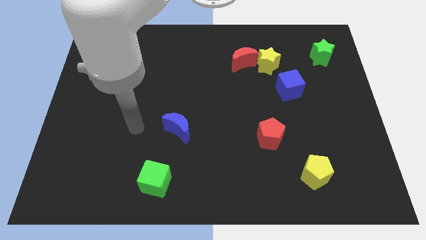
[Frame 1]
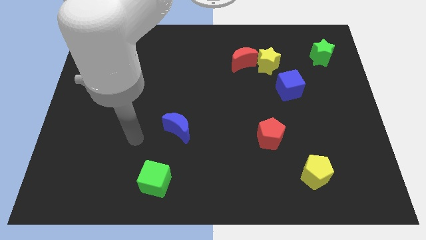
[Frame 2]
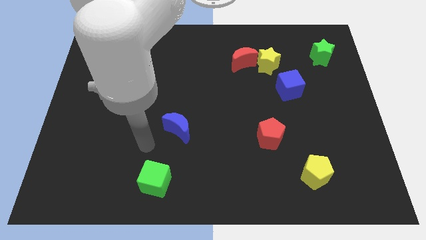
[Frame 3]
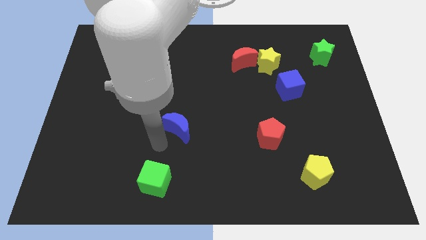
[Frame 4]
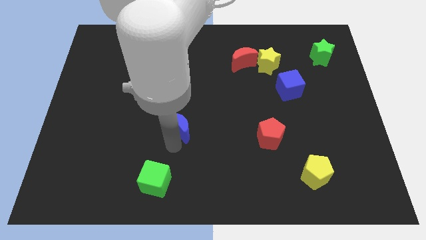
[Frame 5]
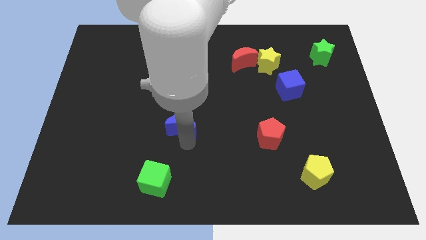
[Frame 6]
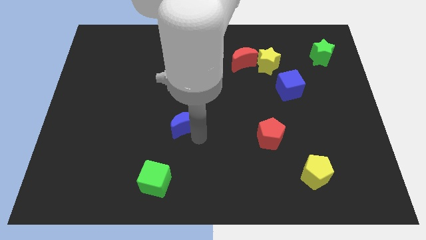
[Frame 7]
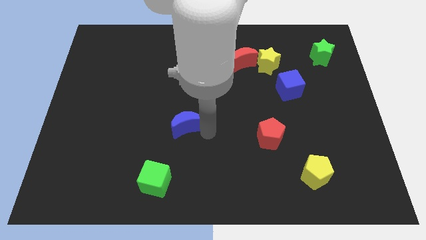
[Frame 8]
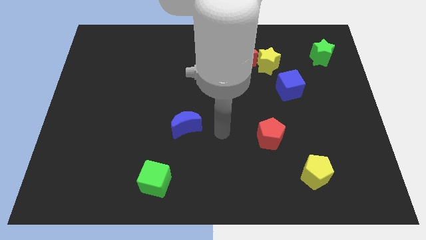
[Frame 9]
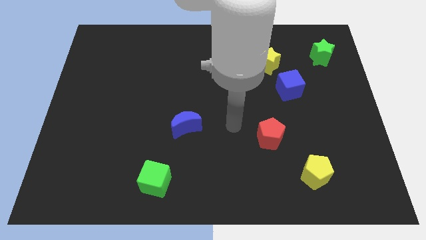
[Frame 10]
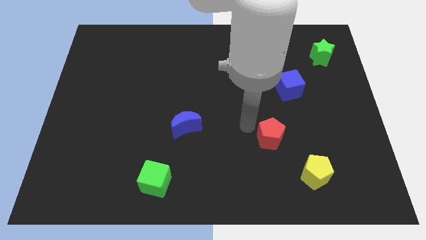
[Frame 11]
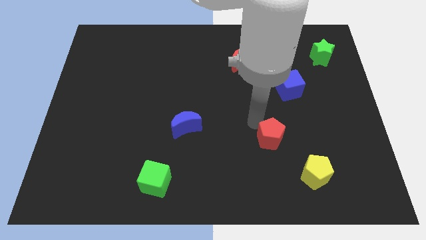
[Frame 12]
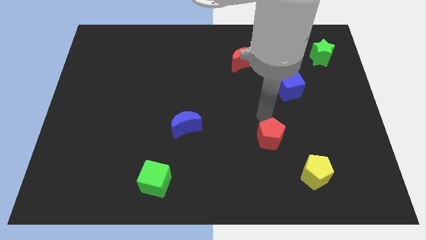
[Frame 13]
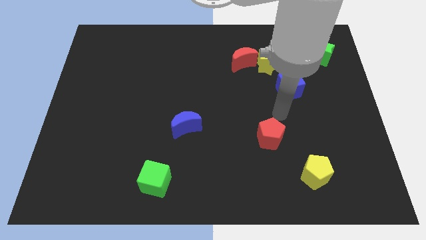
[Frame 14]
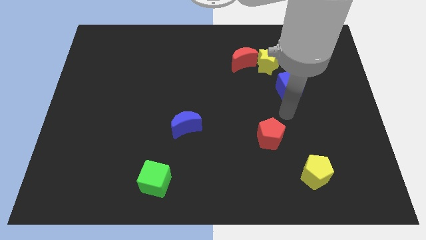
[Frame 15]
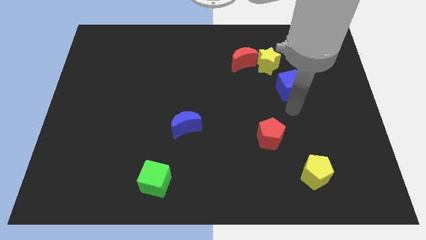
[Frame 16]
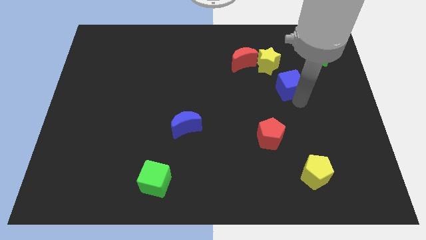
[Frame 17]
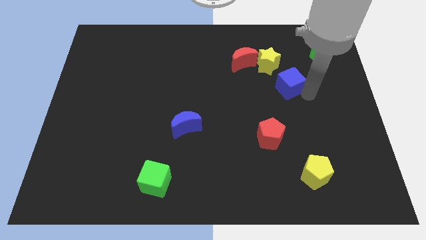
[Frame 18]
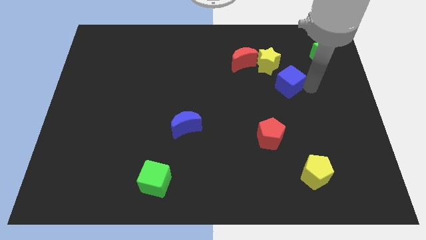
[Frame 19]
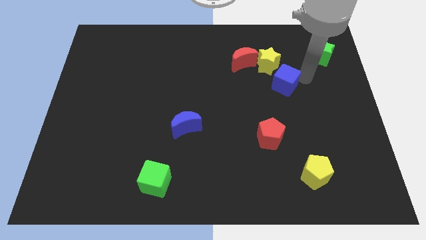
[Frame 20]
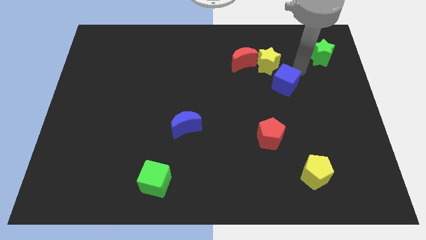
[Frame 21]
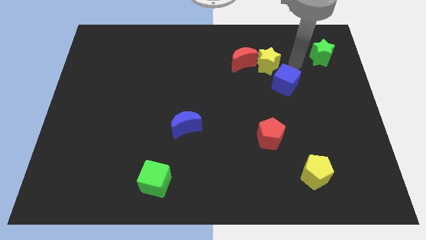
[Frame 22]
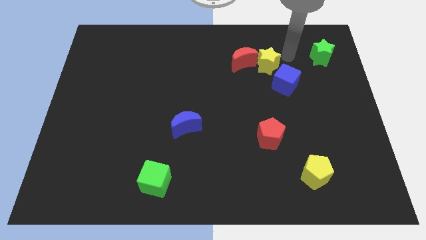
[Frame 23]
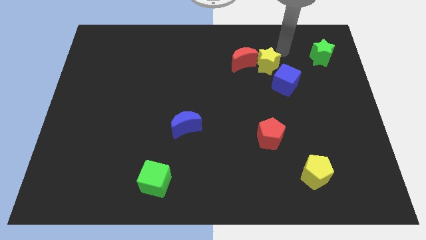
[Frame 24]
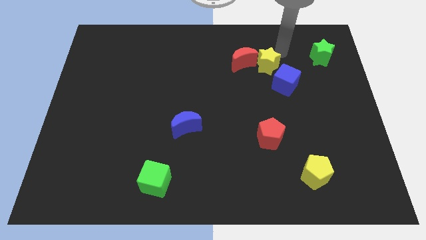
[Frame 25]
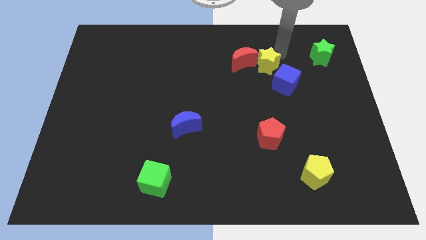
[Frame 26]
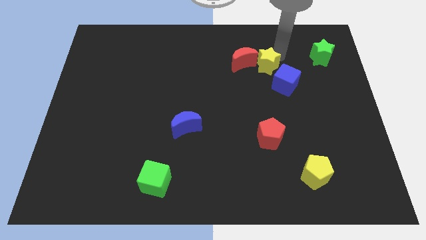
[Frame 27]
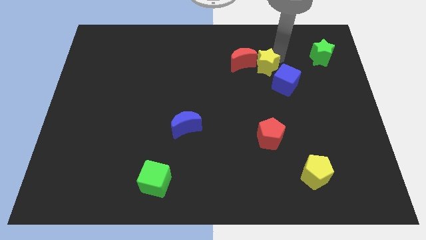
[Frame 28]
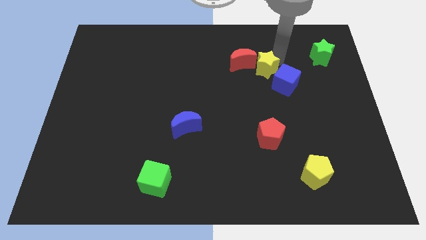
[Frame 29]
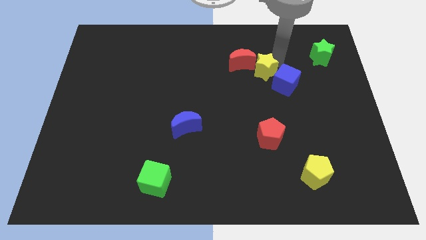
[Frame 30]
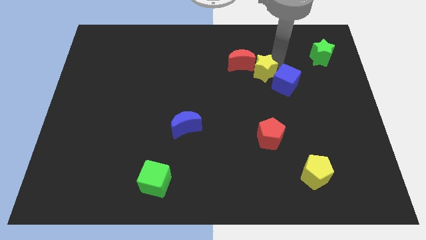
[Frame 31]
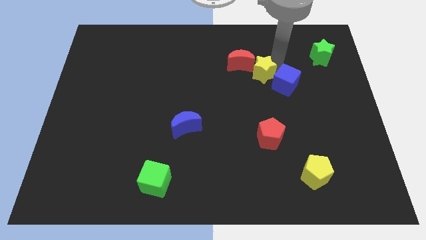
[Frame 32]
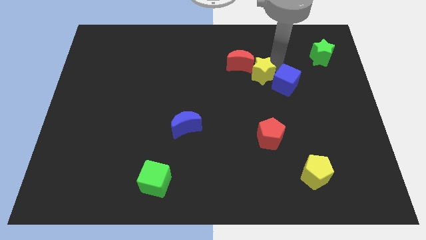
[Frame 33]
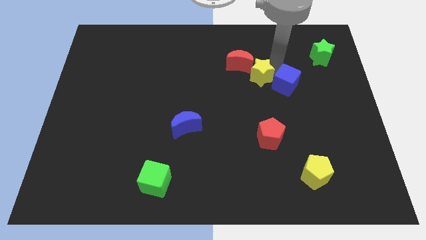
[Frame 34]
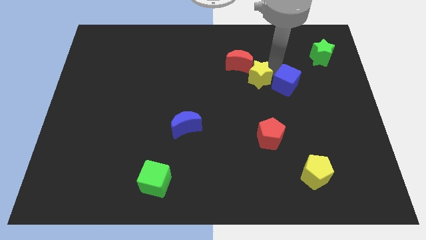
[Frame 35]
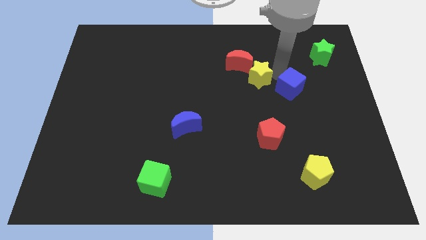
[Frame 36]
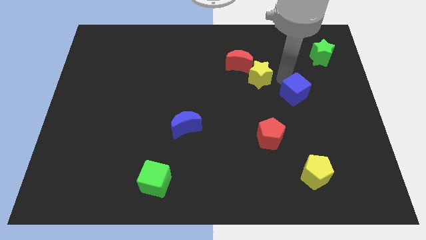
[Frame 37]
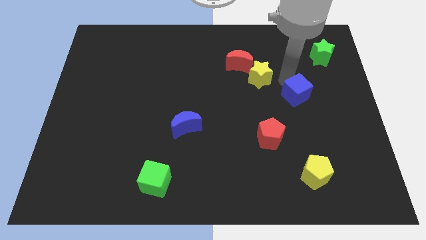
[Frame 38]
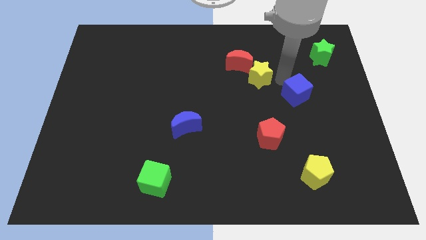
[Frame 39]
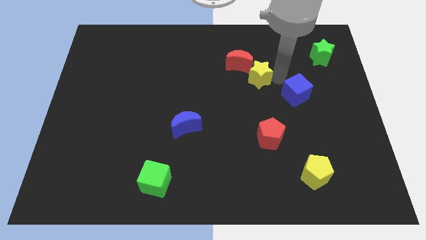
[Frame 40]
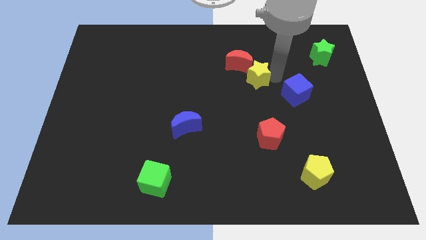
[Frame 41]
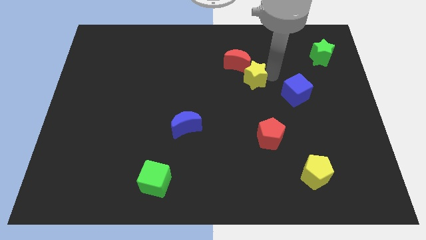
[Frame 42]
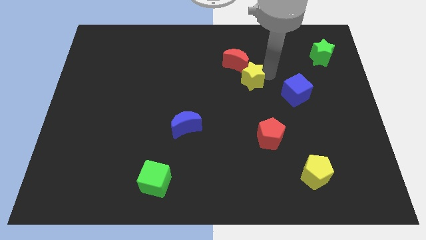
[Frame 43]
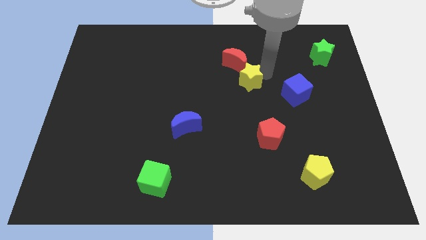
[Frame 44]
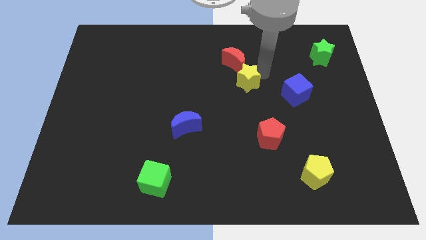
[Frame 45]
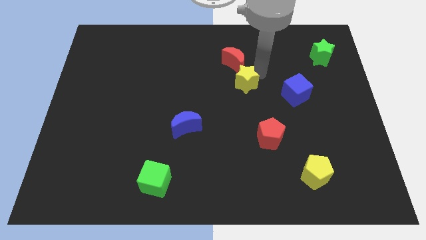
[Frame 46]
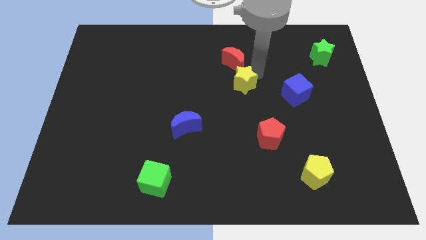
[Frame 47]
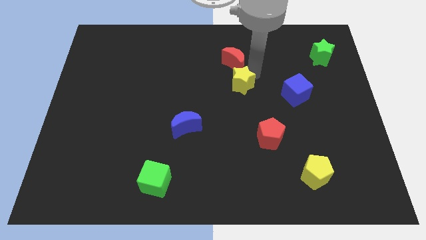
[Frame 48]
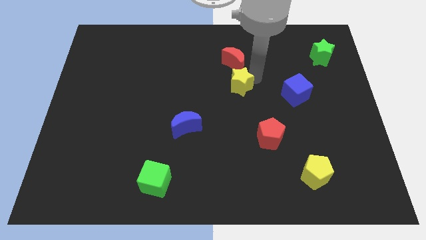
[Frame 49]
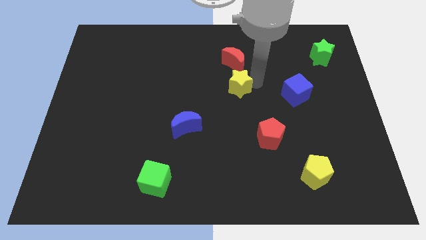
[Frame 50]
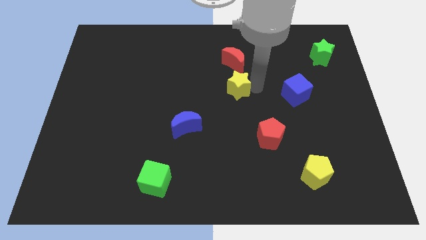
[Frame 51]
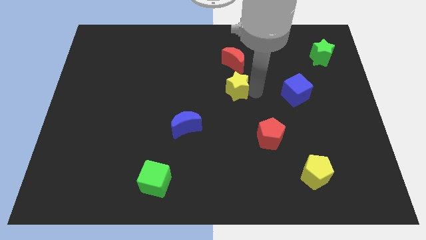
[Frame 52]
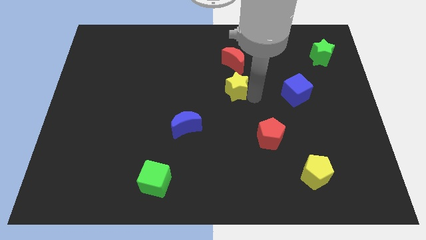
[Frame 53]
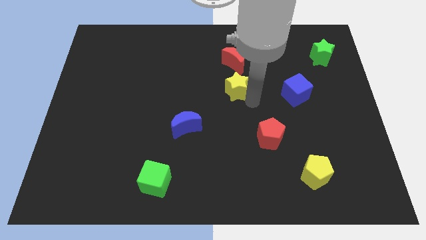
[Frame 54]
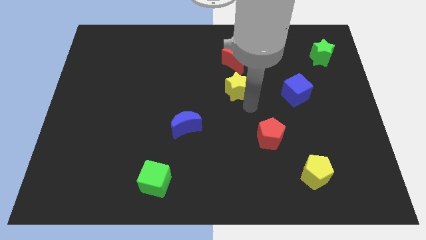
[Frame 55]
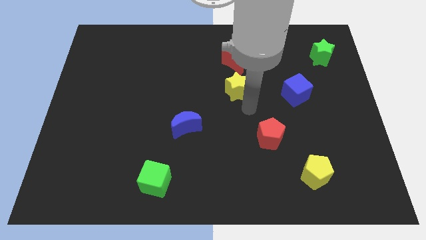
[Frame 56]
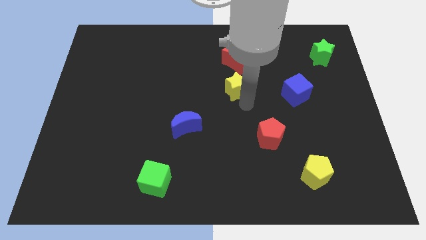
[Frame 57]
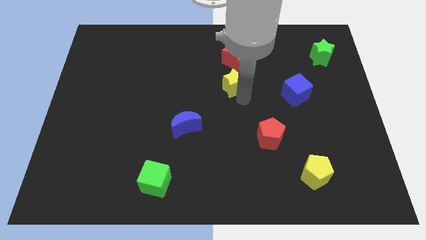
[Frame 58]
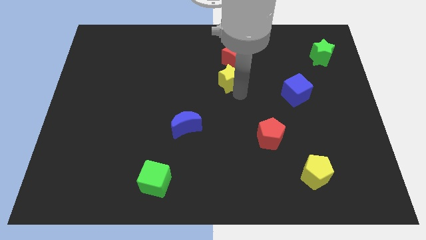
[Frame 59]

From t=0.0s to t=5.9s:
move the yellow star a little bit left

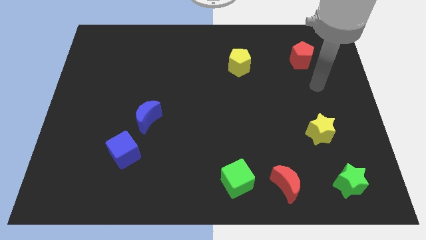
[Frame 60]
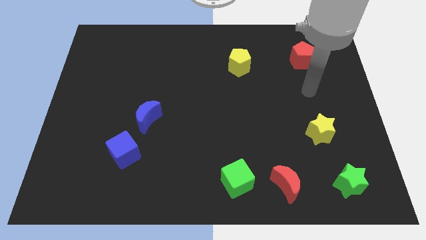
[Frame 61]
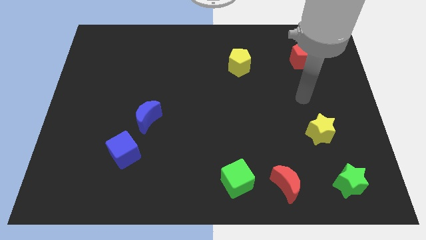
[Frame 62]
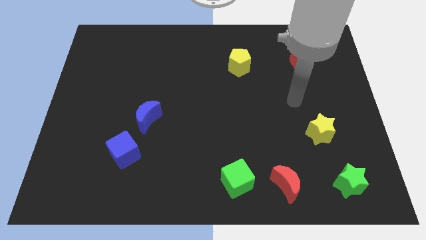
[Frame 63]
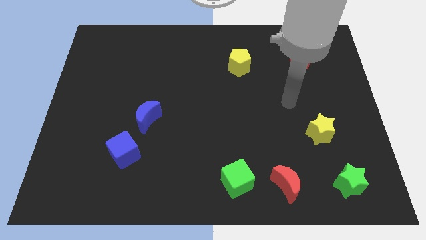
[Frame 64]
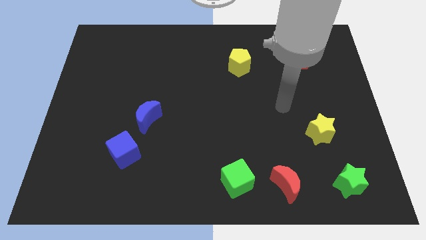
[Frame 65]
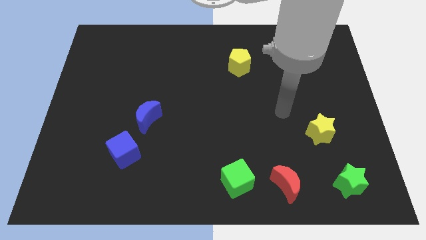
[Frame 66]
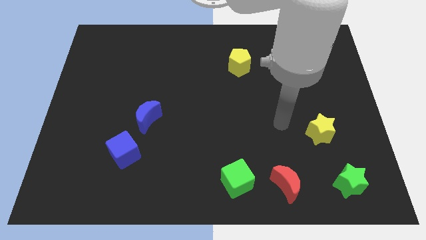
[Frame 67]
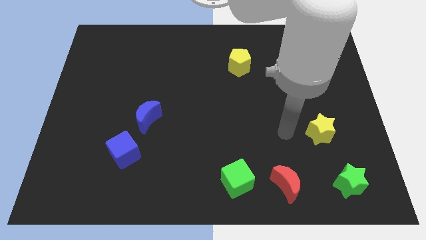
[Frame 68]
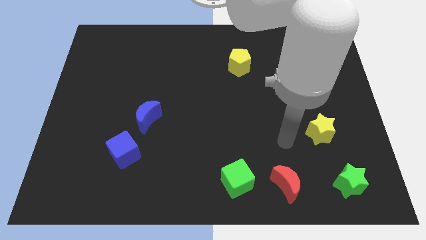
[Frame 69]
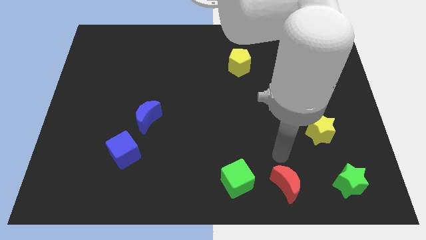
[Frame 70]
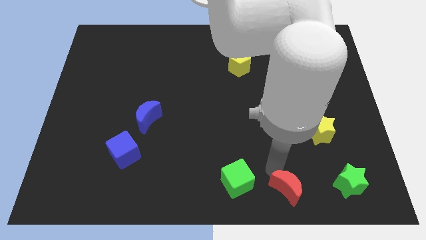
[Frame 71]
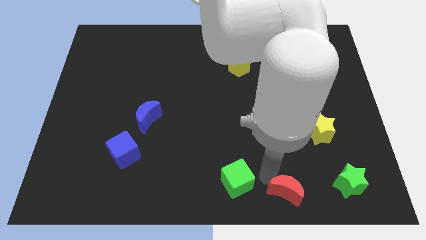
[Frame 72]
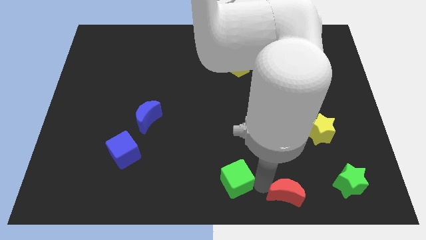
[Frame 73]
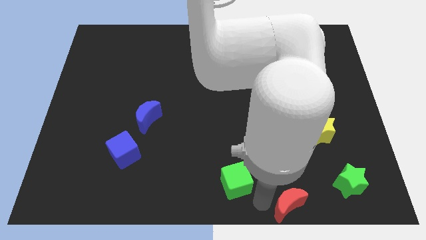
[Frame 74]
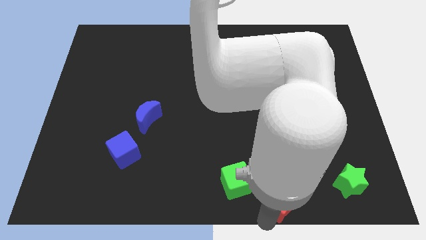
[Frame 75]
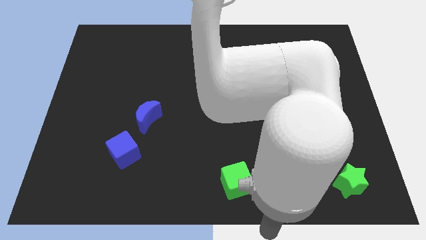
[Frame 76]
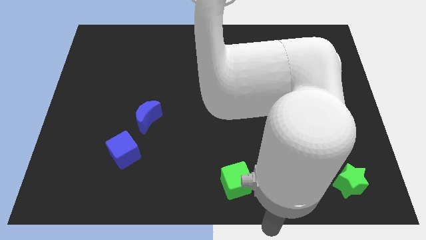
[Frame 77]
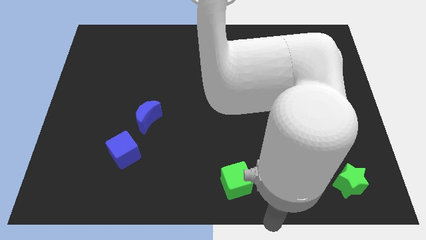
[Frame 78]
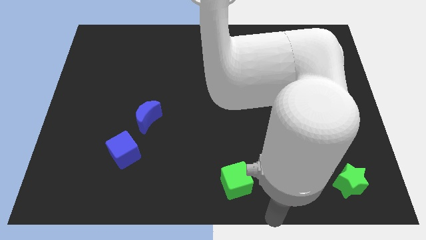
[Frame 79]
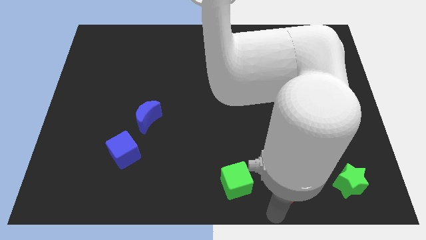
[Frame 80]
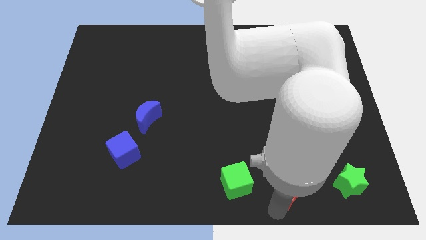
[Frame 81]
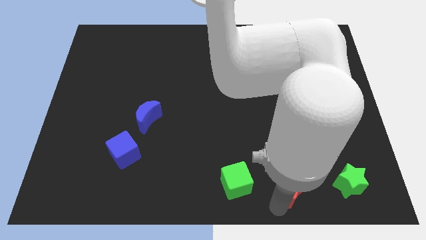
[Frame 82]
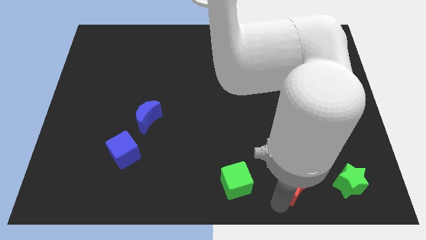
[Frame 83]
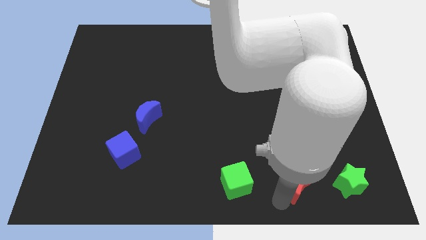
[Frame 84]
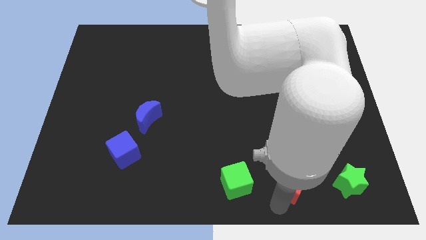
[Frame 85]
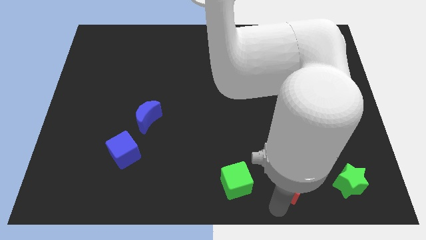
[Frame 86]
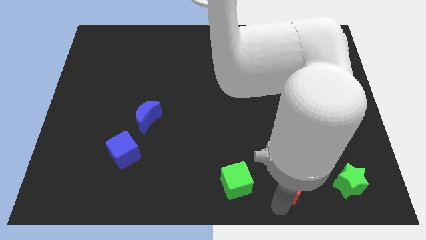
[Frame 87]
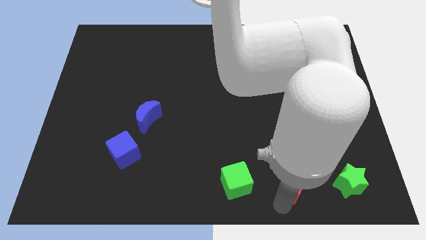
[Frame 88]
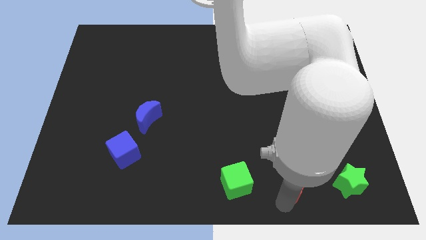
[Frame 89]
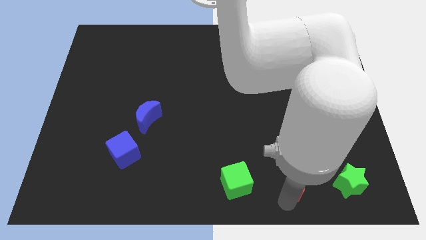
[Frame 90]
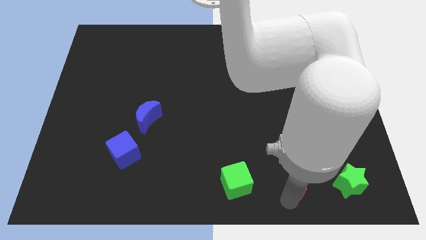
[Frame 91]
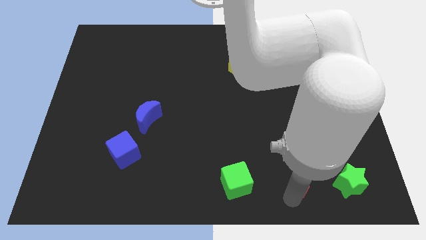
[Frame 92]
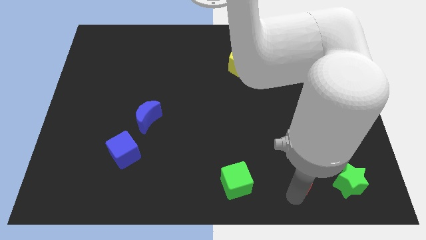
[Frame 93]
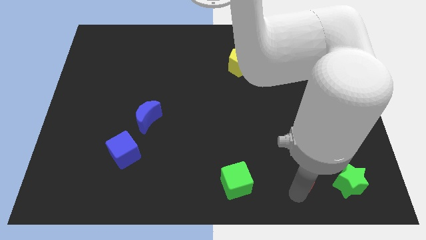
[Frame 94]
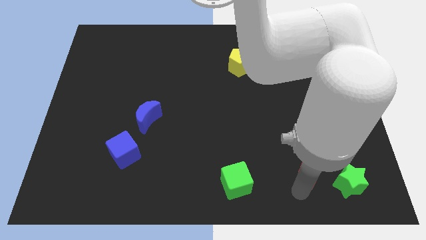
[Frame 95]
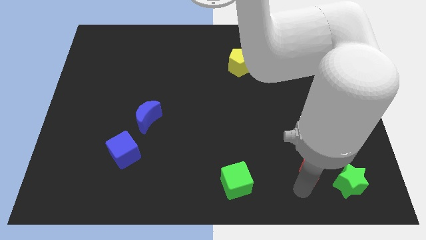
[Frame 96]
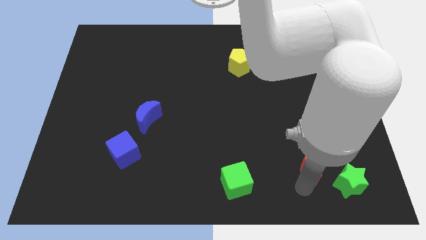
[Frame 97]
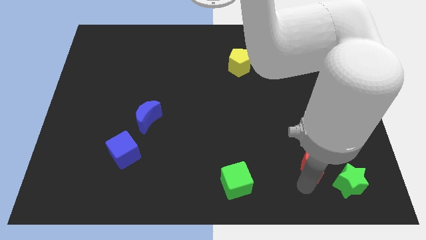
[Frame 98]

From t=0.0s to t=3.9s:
push the red moon diagonally upwards and right a little
